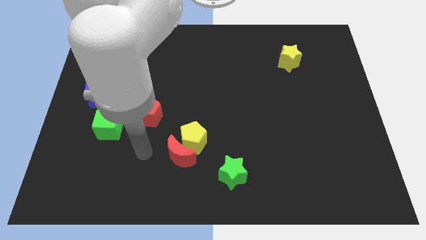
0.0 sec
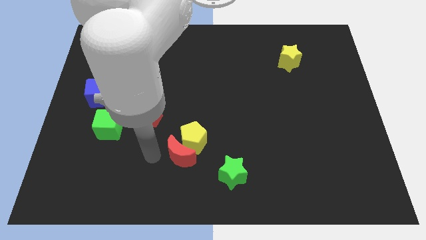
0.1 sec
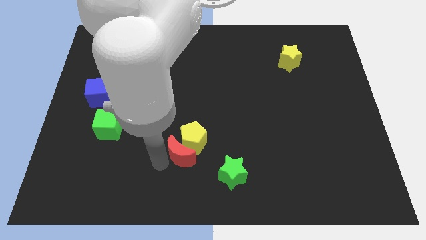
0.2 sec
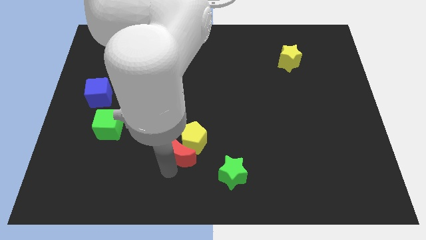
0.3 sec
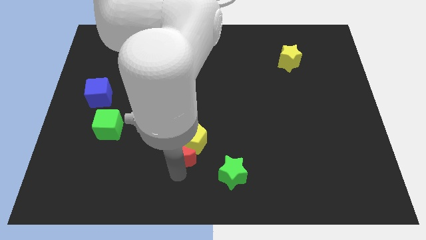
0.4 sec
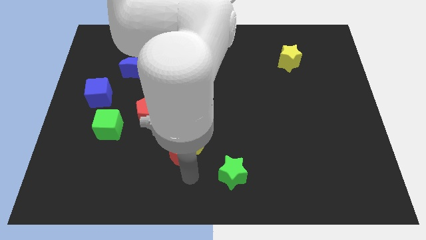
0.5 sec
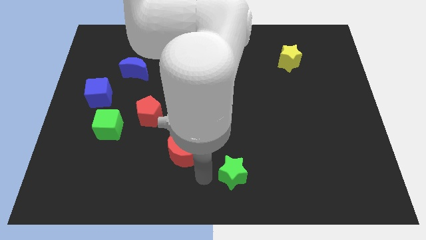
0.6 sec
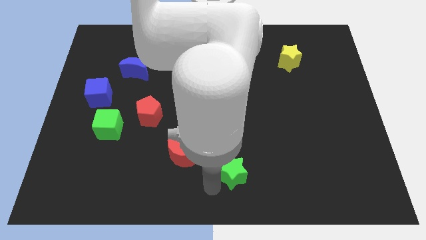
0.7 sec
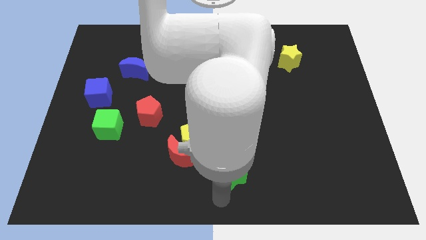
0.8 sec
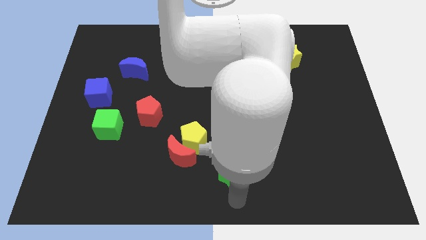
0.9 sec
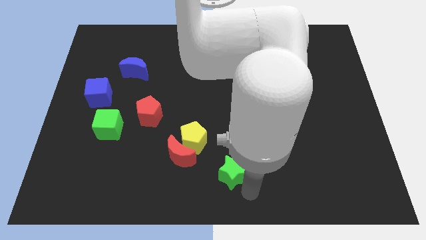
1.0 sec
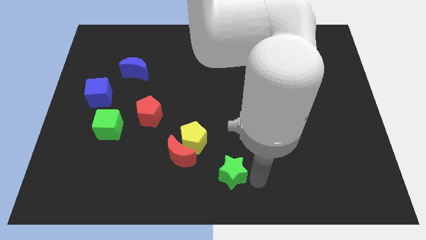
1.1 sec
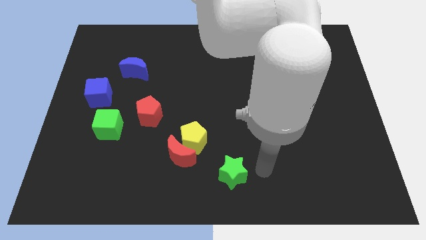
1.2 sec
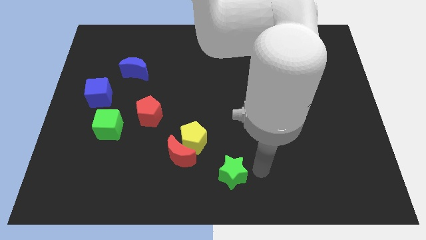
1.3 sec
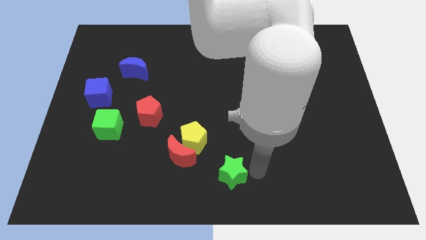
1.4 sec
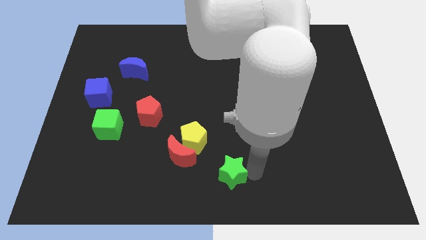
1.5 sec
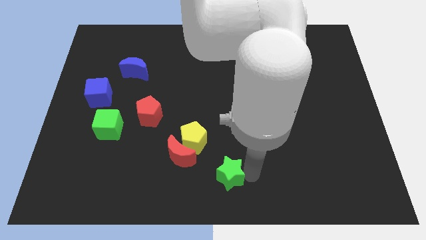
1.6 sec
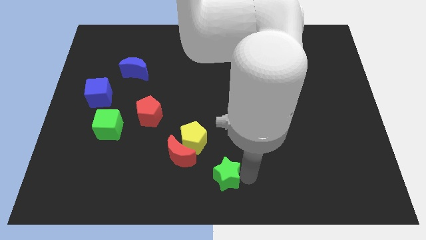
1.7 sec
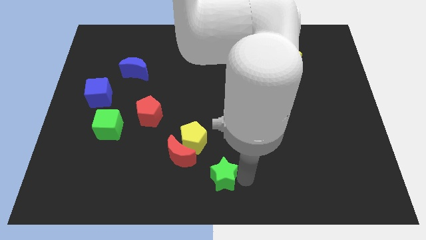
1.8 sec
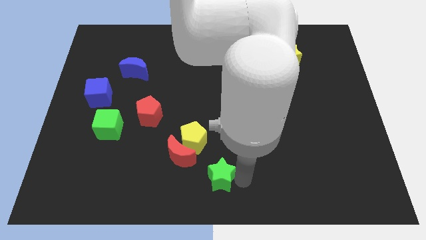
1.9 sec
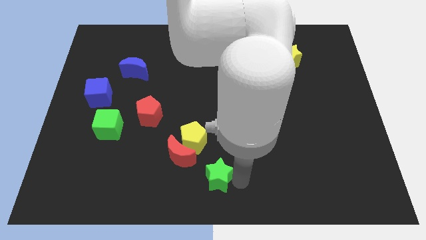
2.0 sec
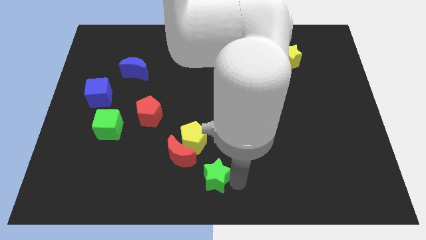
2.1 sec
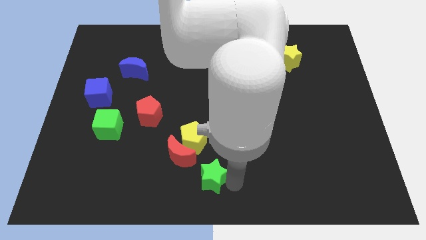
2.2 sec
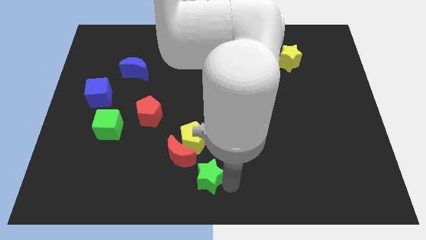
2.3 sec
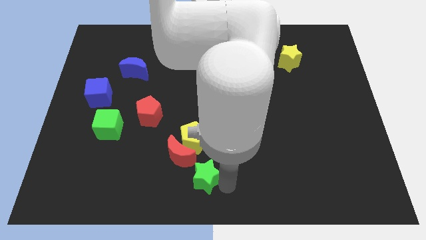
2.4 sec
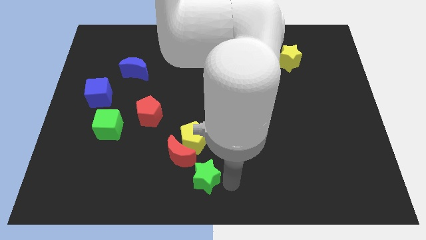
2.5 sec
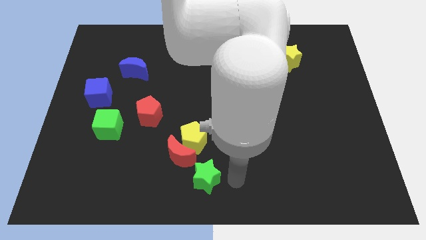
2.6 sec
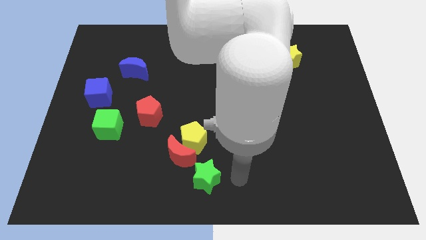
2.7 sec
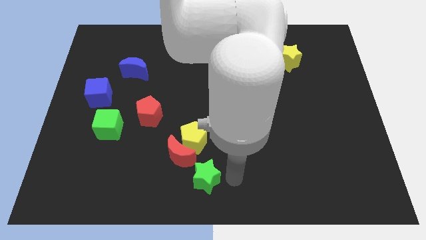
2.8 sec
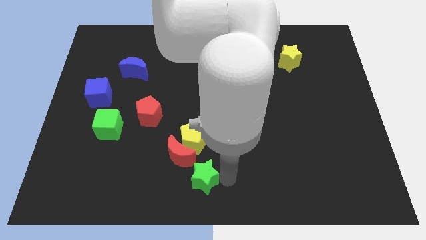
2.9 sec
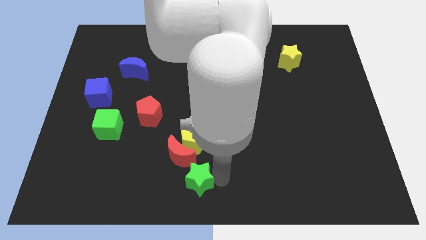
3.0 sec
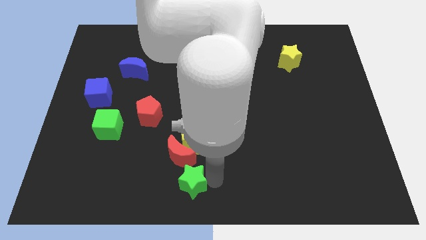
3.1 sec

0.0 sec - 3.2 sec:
move the green star to the left a little bit

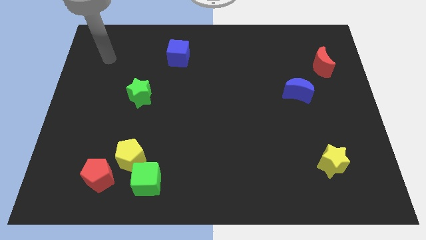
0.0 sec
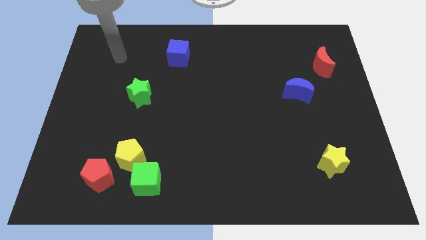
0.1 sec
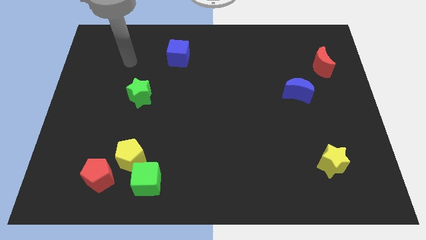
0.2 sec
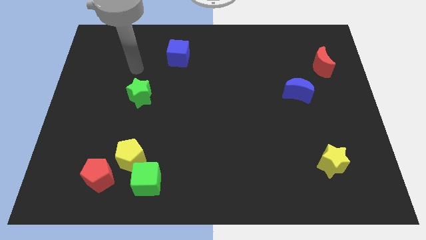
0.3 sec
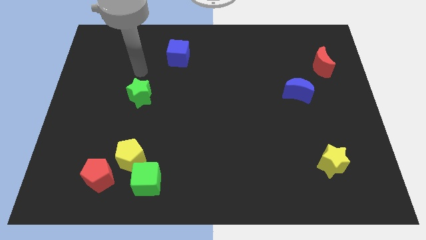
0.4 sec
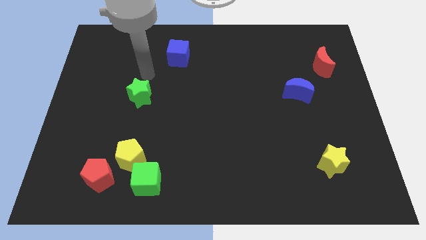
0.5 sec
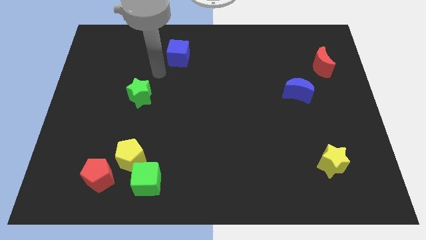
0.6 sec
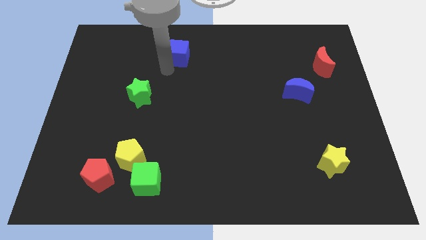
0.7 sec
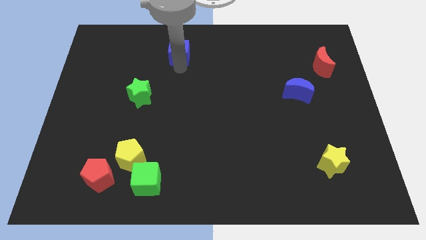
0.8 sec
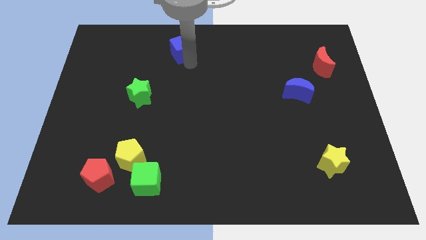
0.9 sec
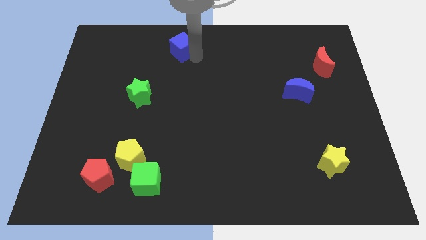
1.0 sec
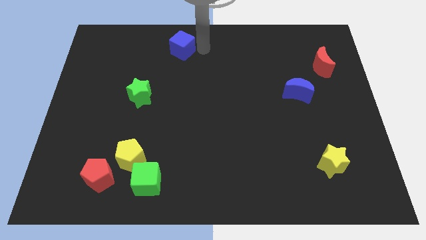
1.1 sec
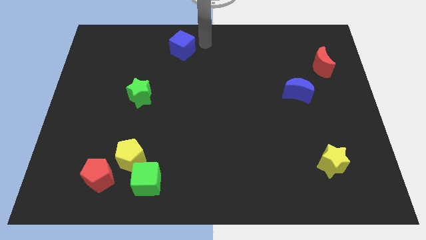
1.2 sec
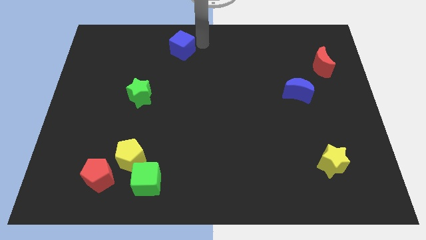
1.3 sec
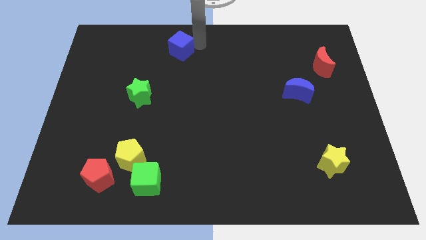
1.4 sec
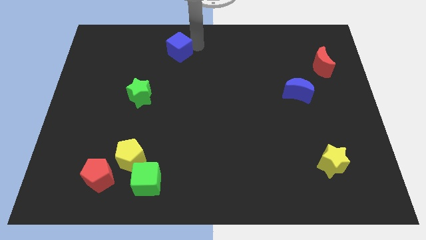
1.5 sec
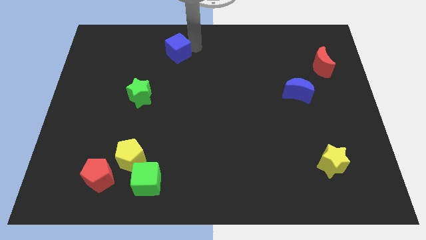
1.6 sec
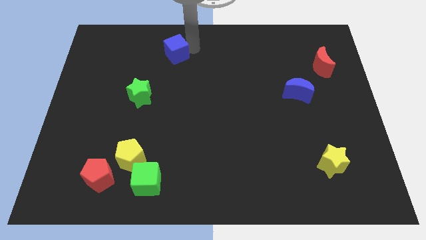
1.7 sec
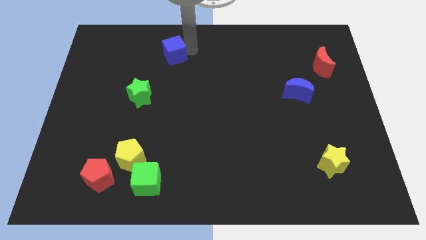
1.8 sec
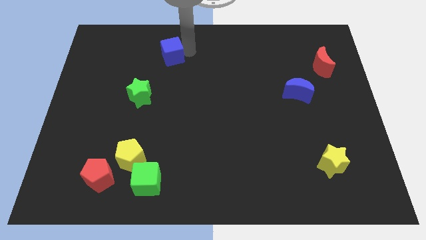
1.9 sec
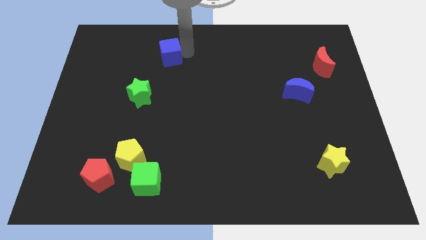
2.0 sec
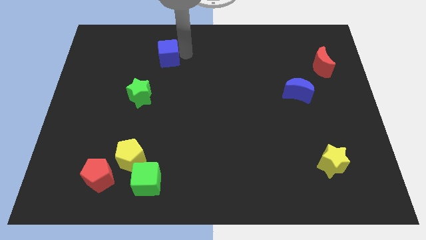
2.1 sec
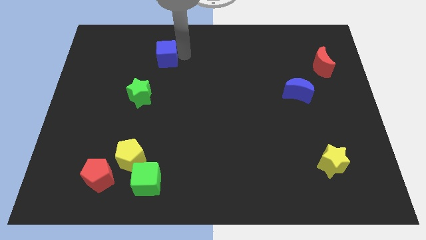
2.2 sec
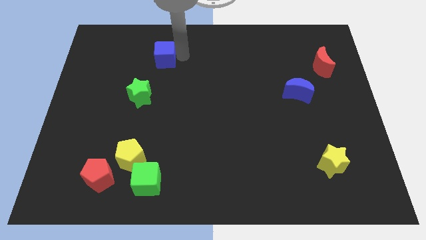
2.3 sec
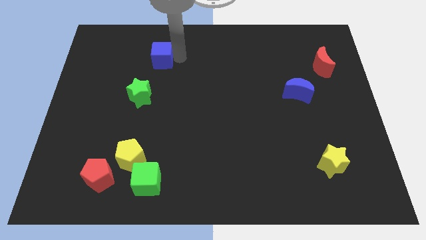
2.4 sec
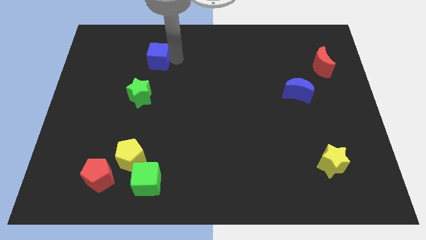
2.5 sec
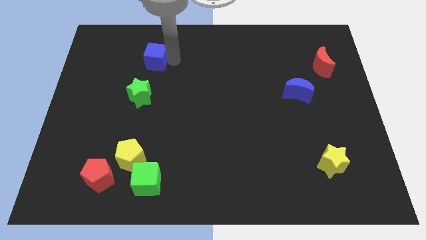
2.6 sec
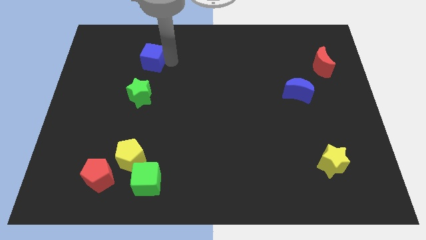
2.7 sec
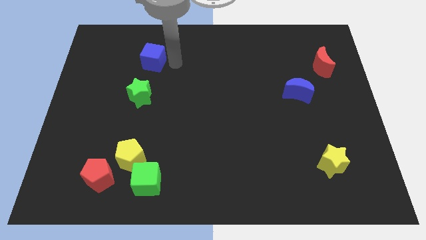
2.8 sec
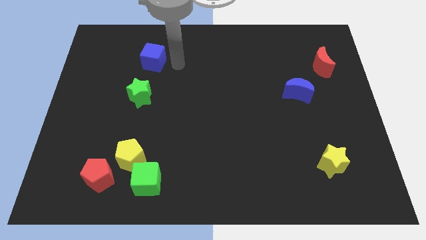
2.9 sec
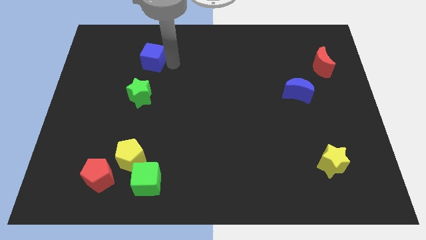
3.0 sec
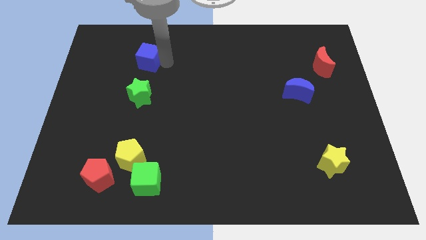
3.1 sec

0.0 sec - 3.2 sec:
slide the blue cube to the left a little bit

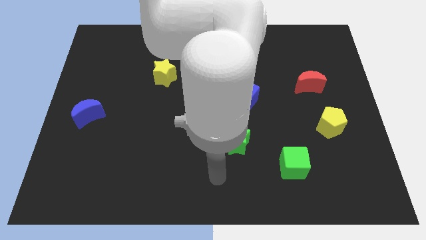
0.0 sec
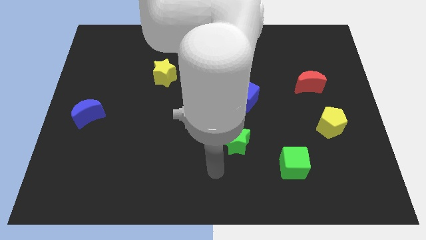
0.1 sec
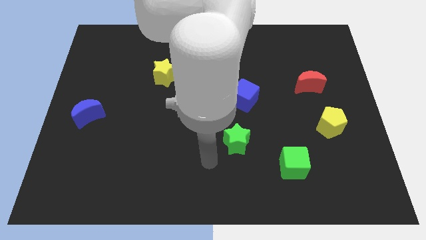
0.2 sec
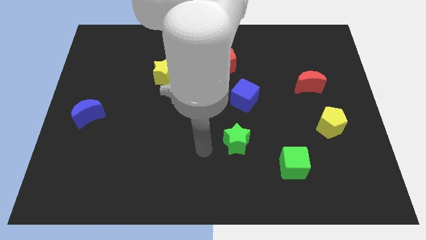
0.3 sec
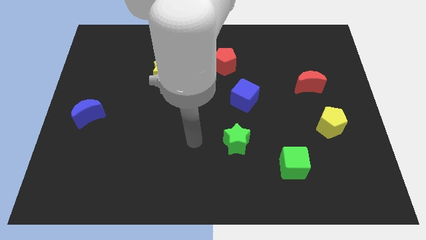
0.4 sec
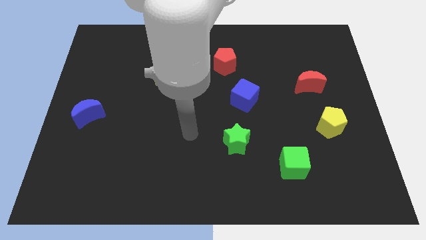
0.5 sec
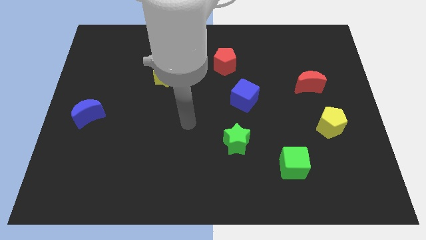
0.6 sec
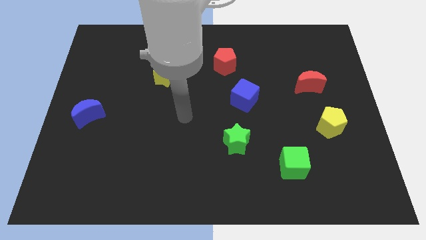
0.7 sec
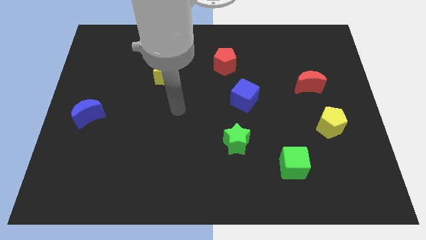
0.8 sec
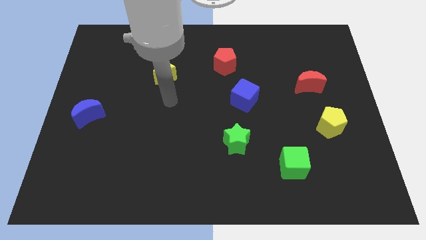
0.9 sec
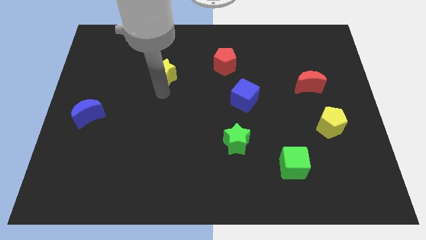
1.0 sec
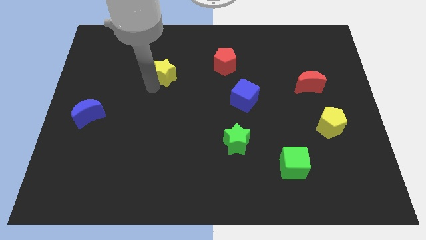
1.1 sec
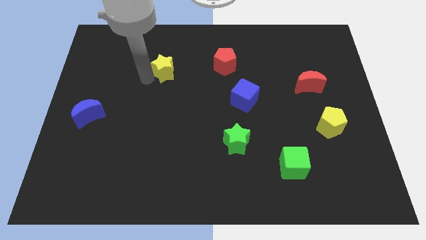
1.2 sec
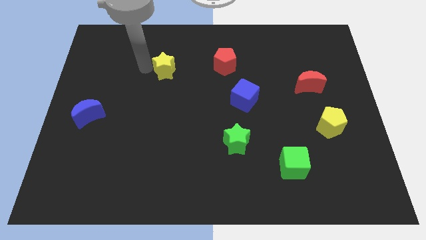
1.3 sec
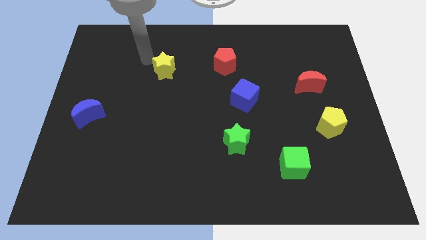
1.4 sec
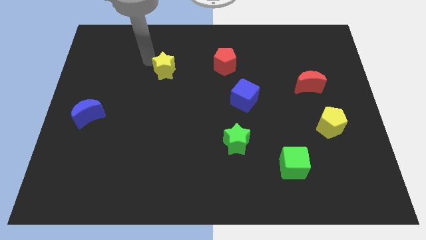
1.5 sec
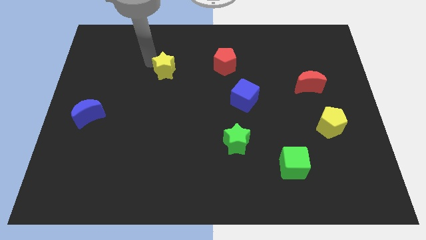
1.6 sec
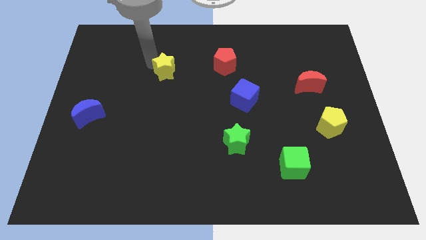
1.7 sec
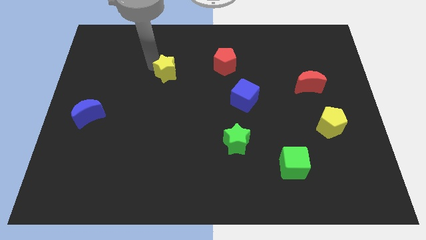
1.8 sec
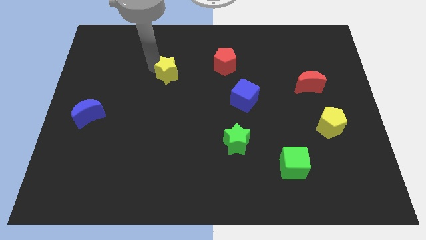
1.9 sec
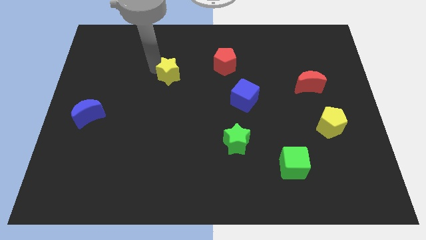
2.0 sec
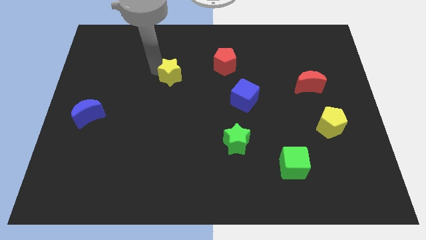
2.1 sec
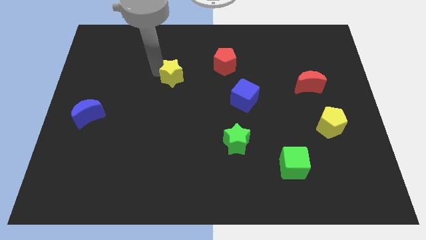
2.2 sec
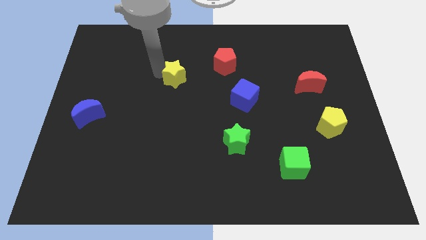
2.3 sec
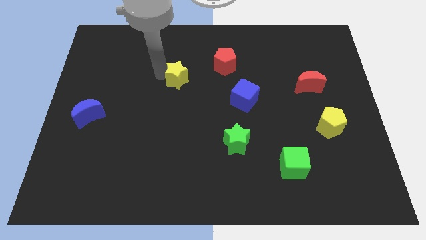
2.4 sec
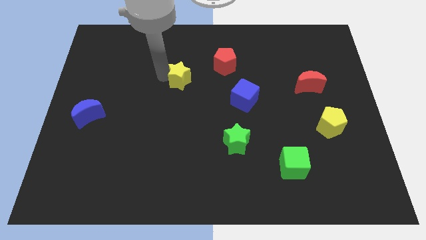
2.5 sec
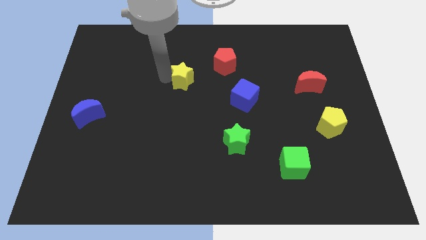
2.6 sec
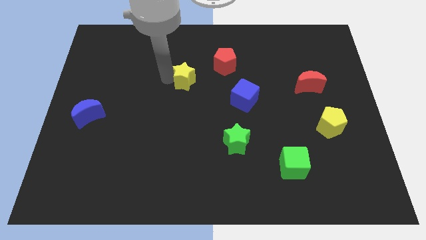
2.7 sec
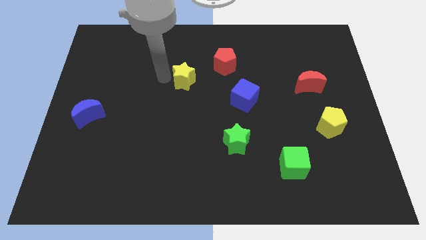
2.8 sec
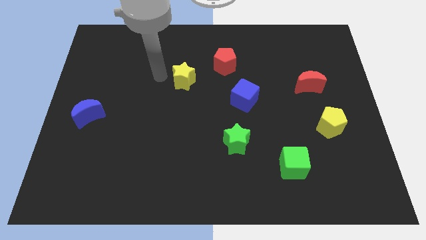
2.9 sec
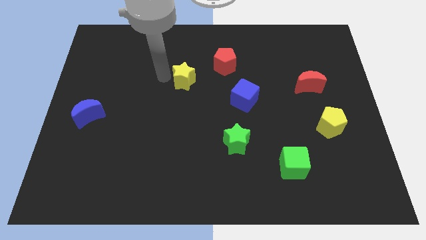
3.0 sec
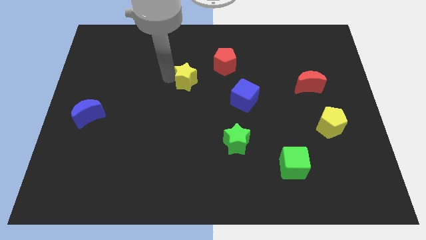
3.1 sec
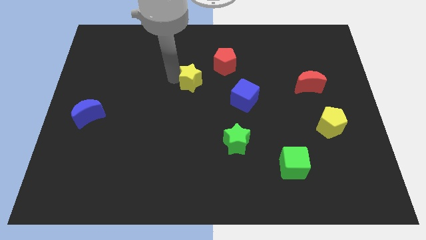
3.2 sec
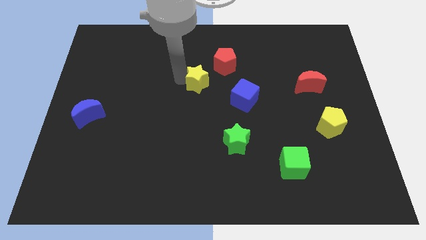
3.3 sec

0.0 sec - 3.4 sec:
slightly slide the yellow star right
